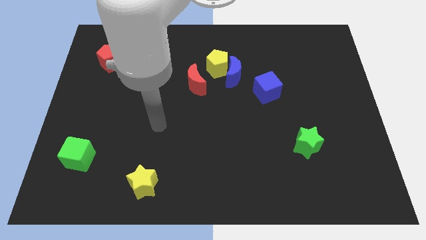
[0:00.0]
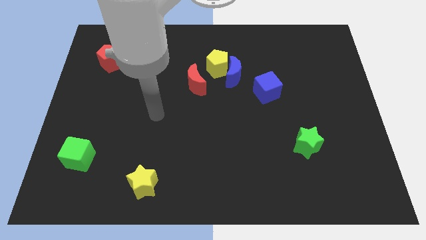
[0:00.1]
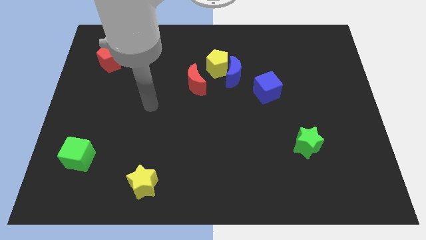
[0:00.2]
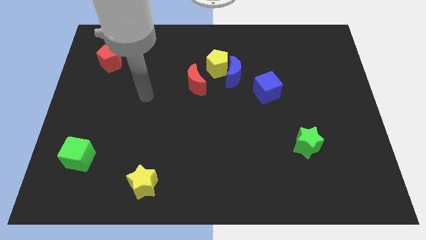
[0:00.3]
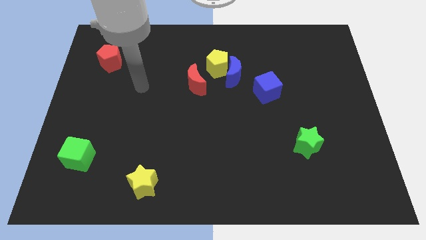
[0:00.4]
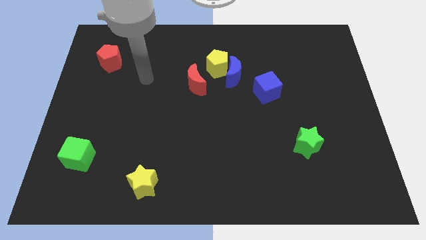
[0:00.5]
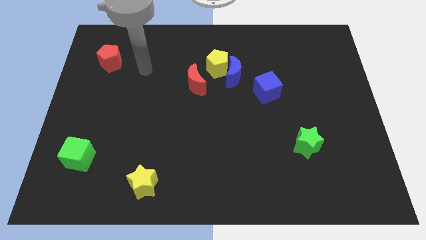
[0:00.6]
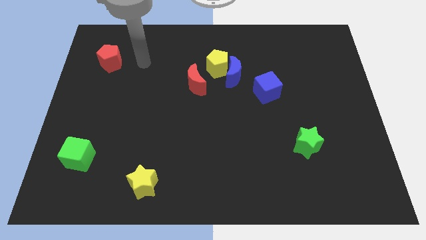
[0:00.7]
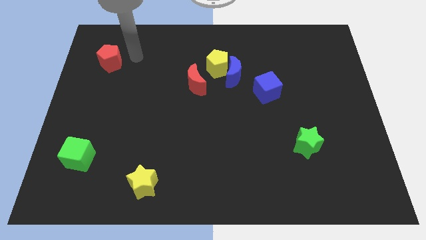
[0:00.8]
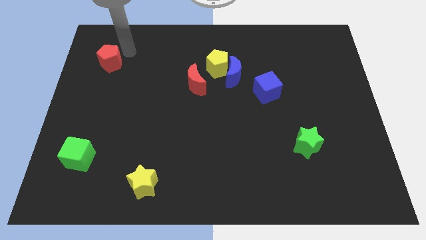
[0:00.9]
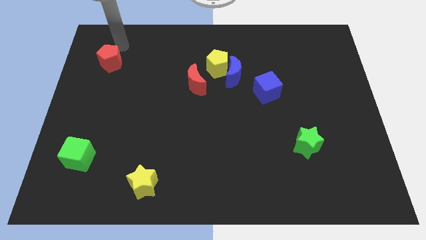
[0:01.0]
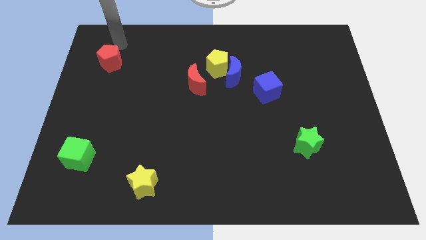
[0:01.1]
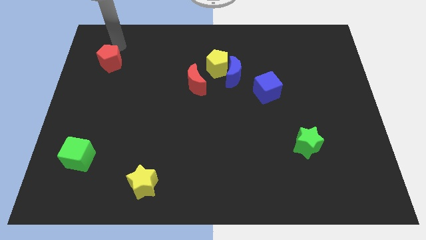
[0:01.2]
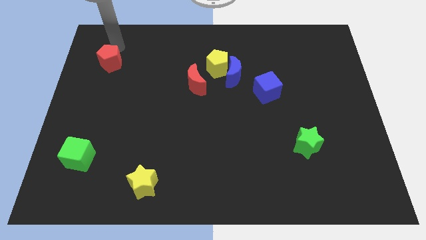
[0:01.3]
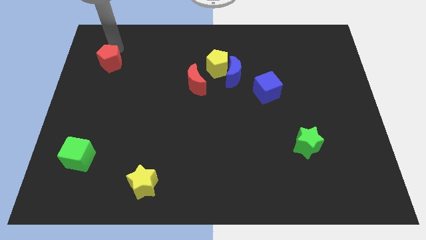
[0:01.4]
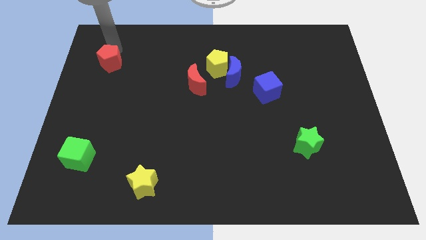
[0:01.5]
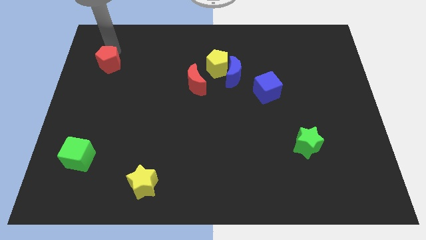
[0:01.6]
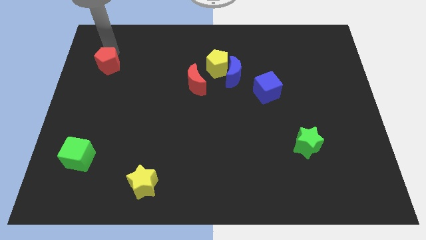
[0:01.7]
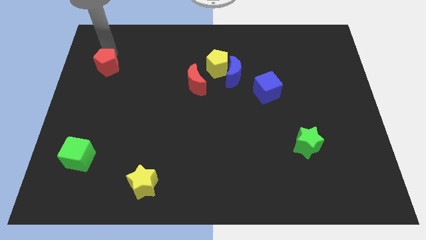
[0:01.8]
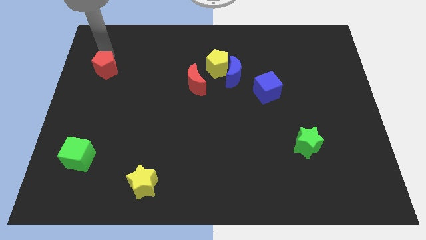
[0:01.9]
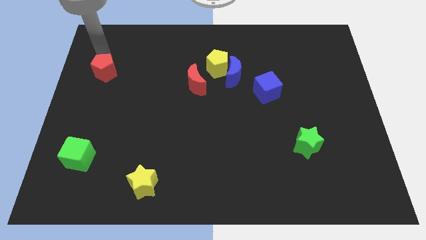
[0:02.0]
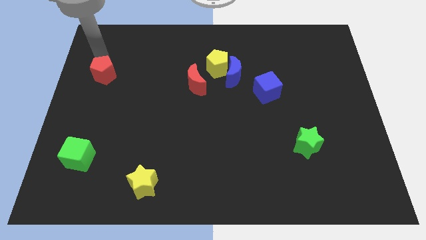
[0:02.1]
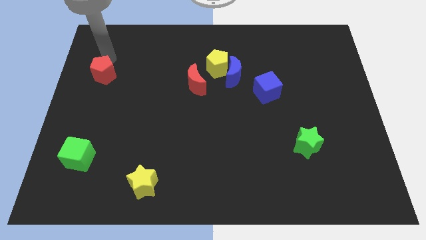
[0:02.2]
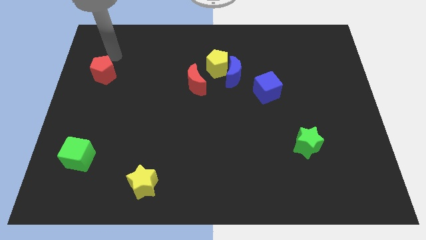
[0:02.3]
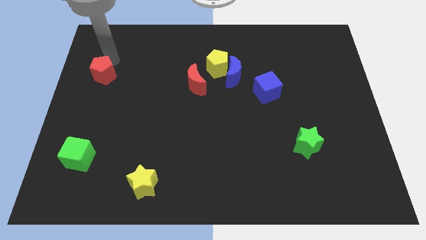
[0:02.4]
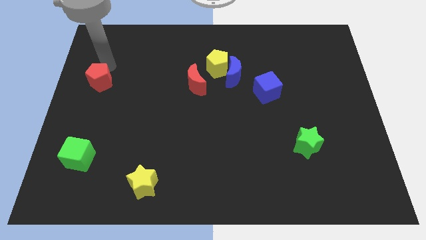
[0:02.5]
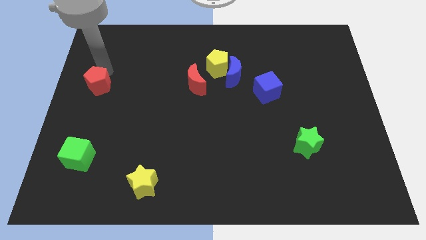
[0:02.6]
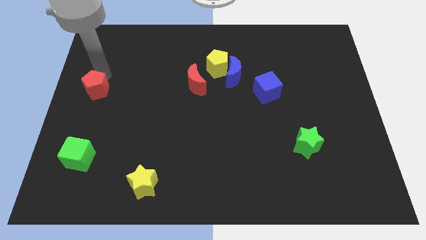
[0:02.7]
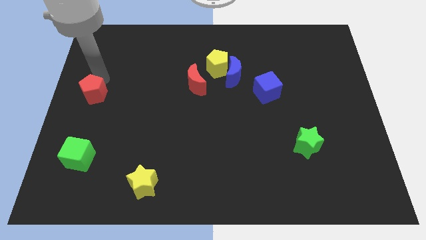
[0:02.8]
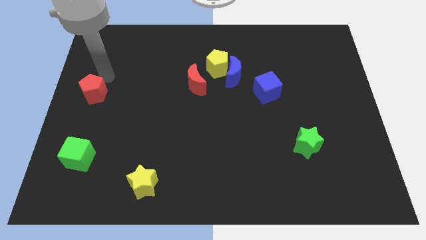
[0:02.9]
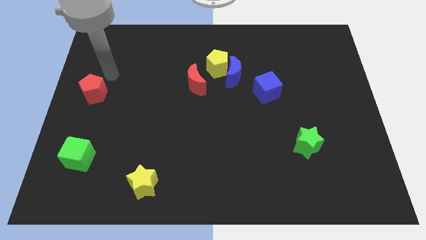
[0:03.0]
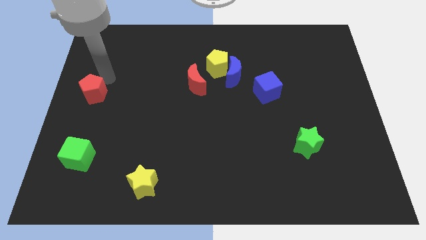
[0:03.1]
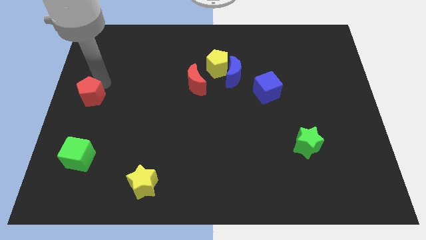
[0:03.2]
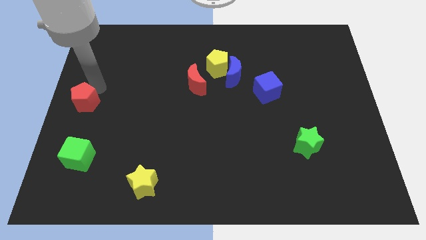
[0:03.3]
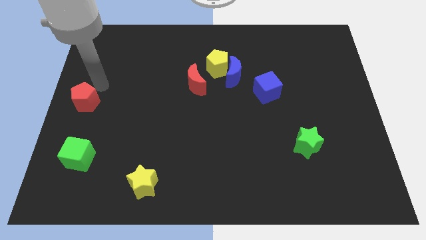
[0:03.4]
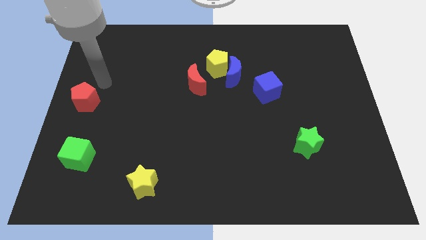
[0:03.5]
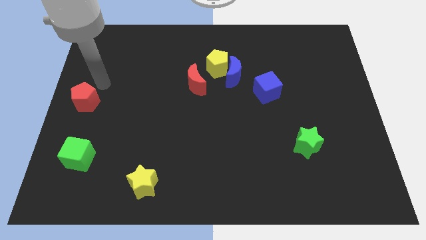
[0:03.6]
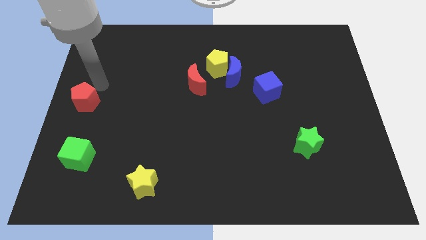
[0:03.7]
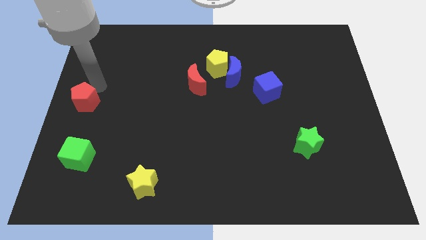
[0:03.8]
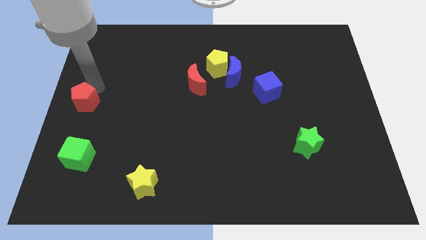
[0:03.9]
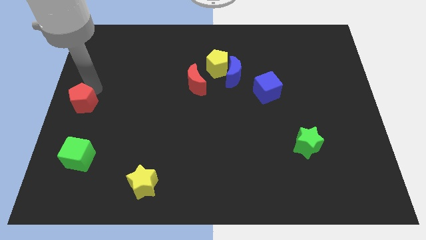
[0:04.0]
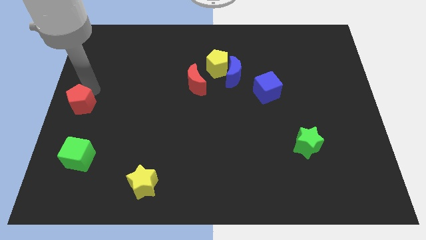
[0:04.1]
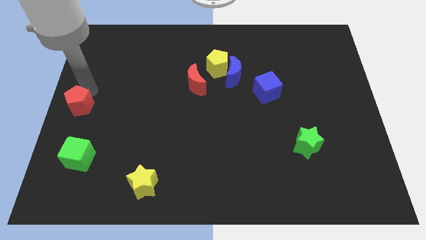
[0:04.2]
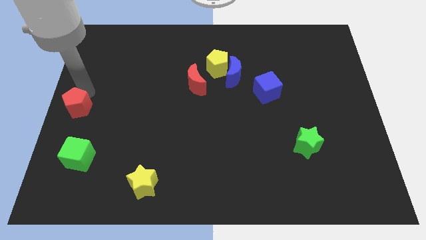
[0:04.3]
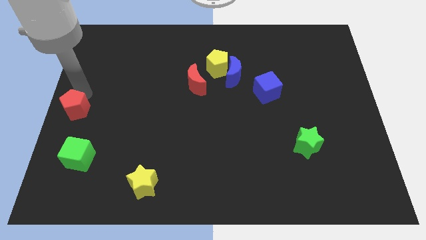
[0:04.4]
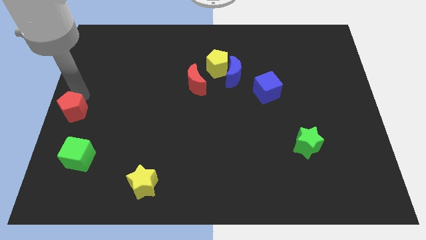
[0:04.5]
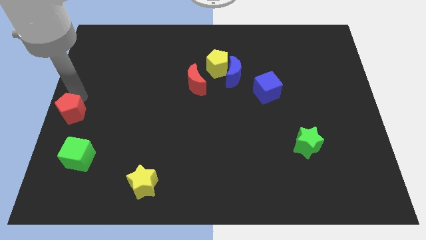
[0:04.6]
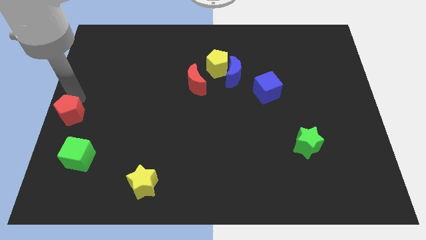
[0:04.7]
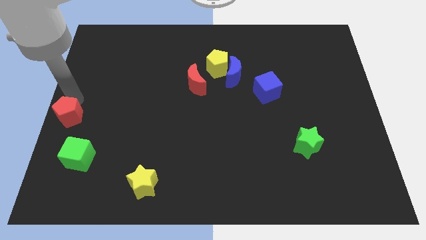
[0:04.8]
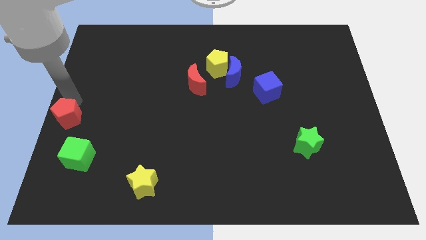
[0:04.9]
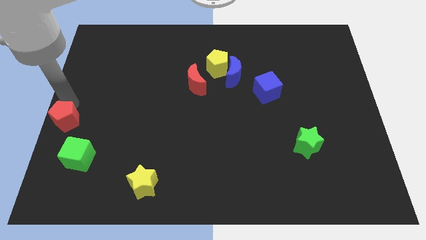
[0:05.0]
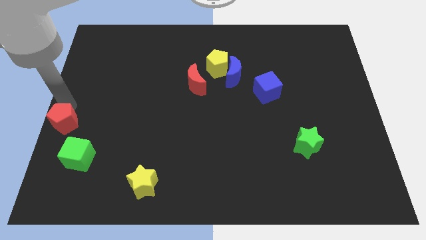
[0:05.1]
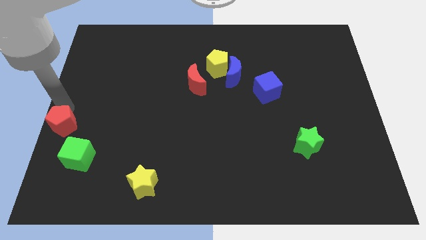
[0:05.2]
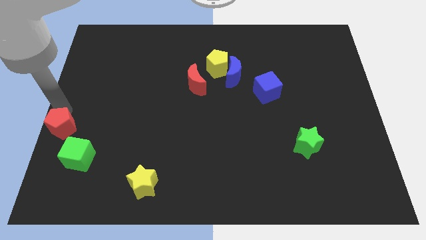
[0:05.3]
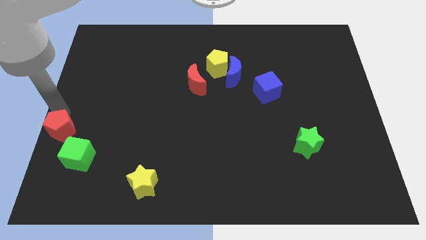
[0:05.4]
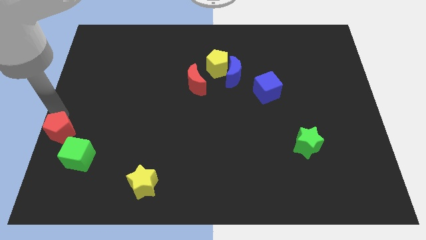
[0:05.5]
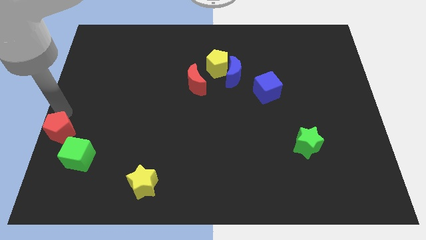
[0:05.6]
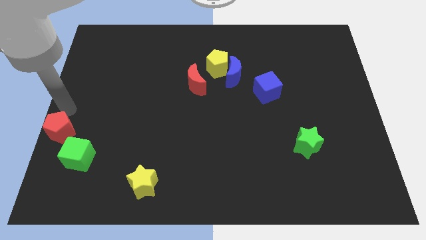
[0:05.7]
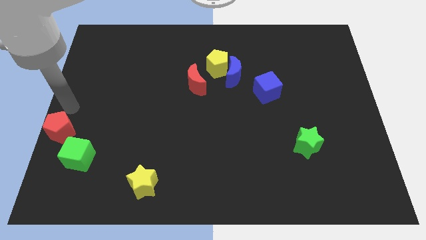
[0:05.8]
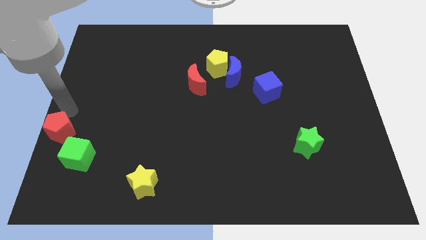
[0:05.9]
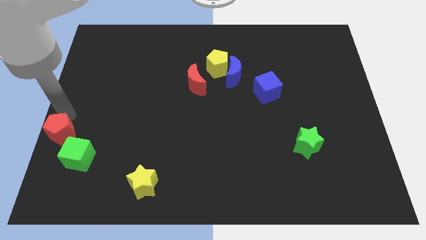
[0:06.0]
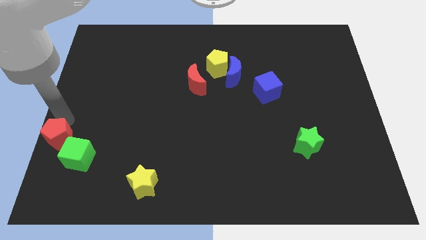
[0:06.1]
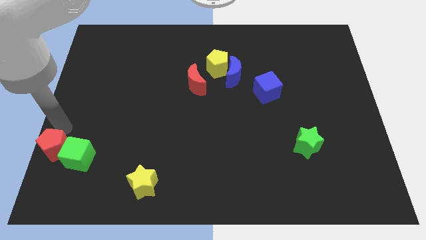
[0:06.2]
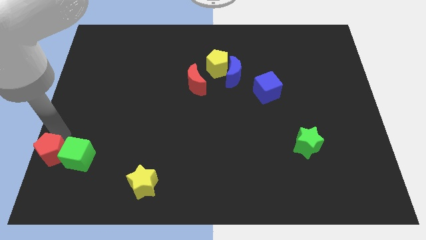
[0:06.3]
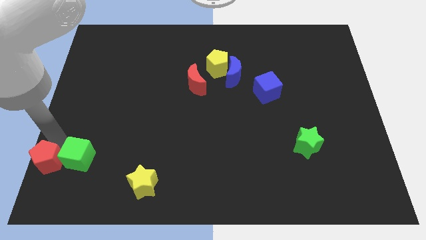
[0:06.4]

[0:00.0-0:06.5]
put the red pentagon to the bottom left
